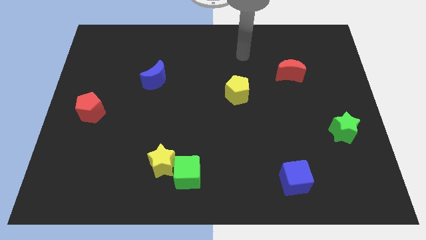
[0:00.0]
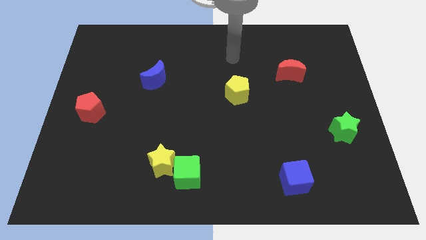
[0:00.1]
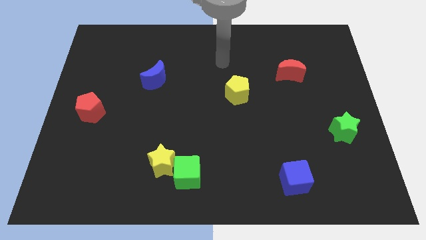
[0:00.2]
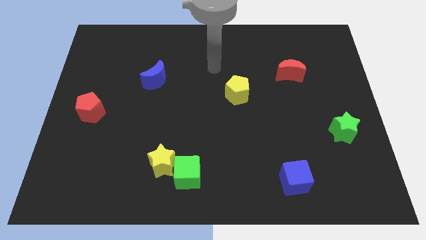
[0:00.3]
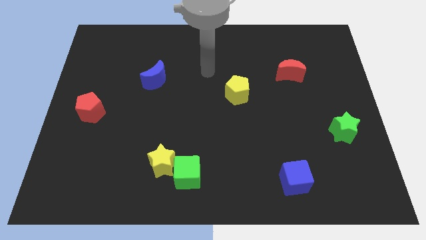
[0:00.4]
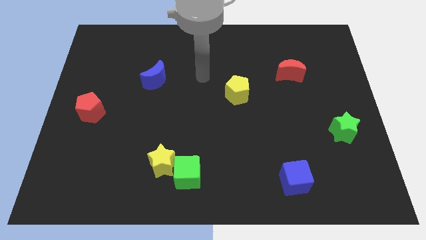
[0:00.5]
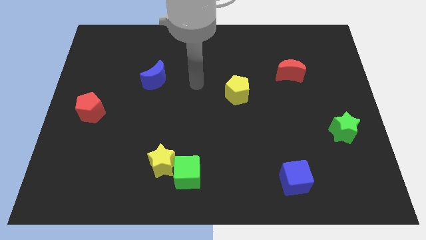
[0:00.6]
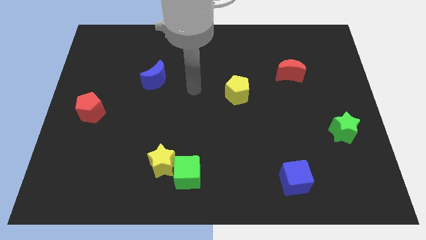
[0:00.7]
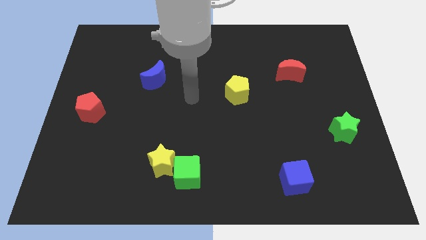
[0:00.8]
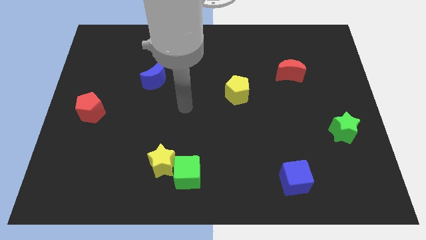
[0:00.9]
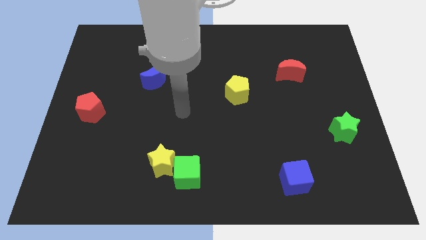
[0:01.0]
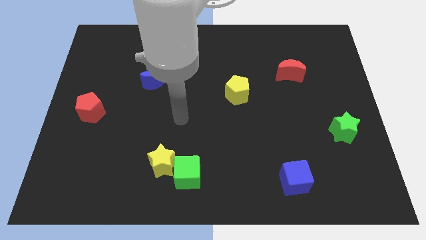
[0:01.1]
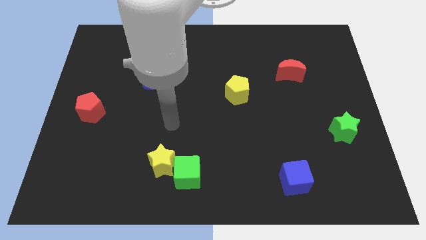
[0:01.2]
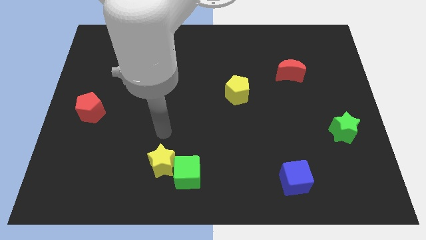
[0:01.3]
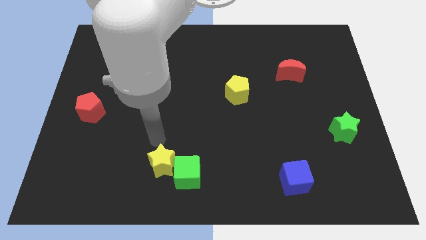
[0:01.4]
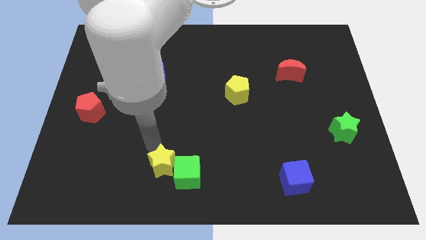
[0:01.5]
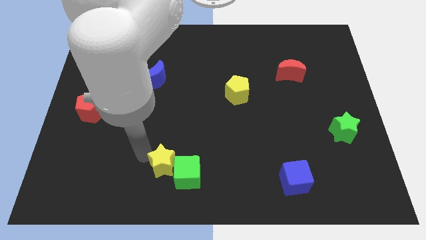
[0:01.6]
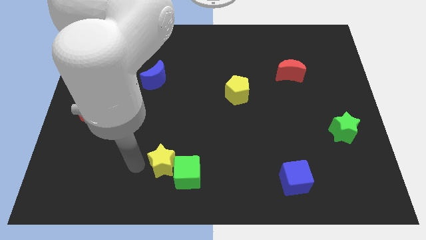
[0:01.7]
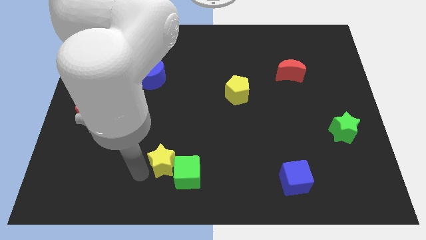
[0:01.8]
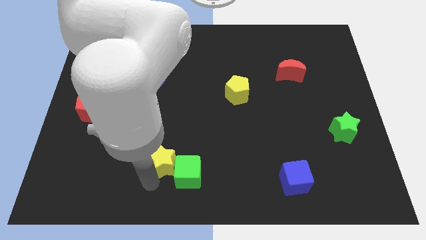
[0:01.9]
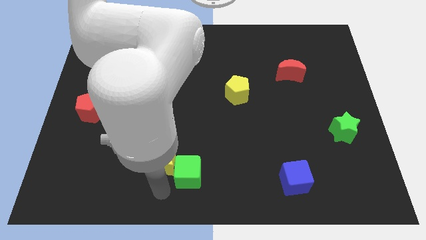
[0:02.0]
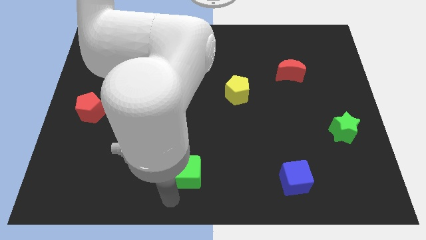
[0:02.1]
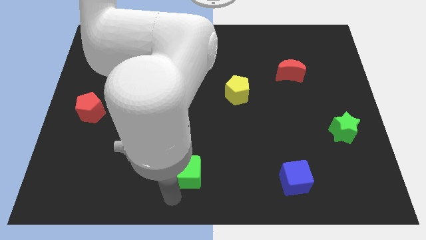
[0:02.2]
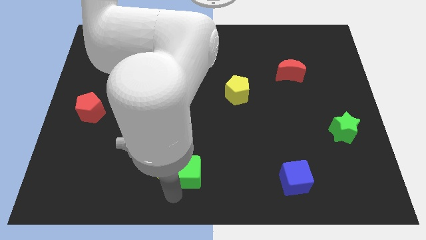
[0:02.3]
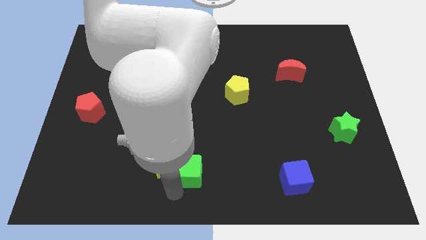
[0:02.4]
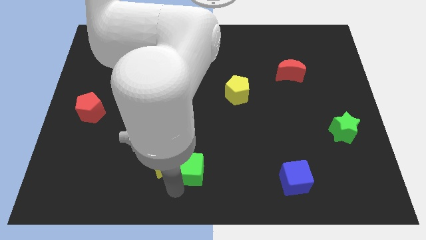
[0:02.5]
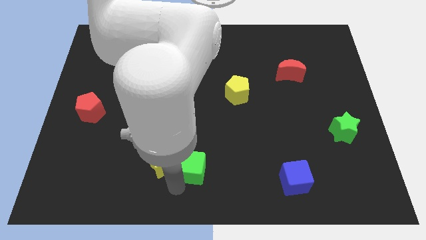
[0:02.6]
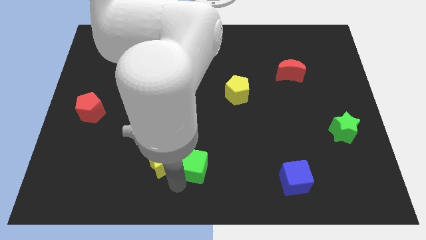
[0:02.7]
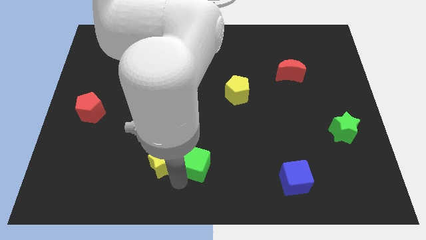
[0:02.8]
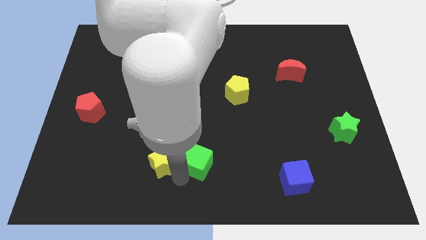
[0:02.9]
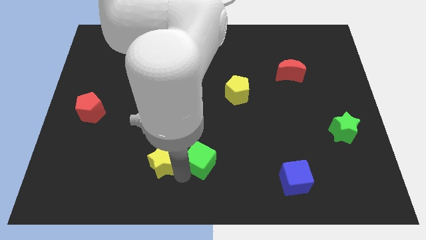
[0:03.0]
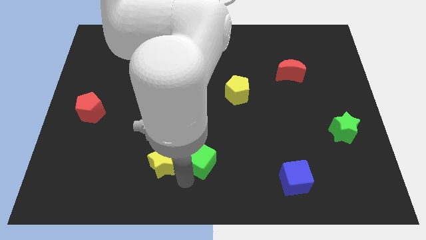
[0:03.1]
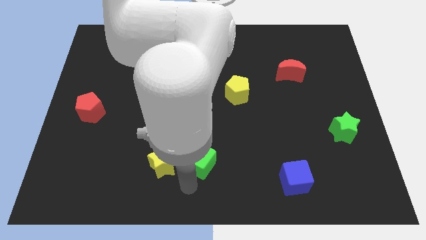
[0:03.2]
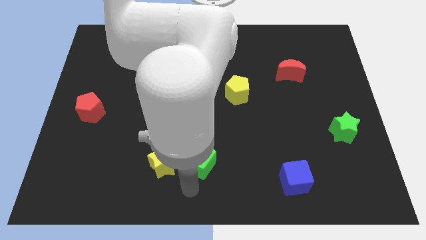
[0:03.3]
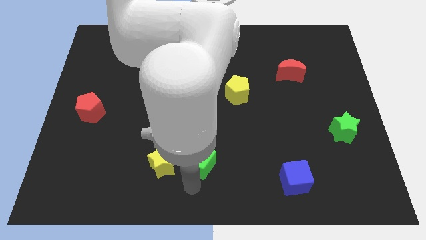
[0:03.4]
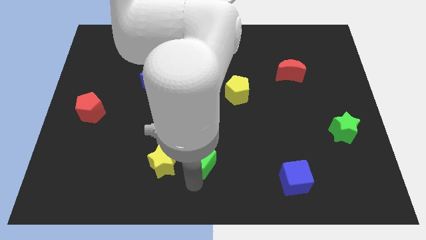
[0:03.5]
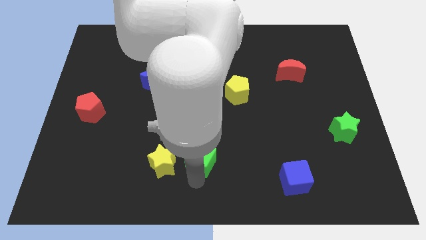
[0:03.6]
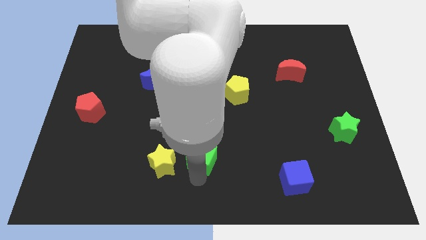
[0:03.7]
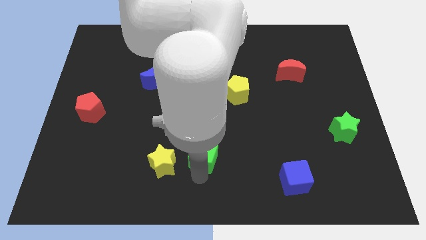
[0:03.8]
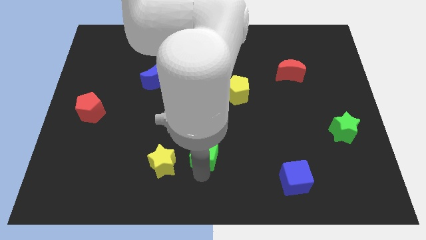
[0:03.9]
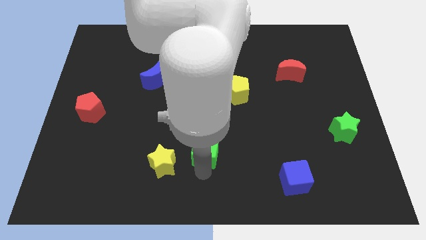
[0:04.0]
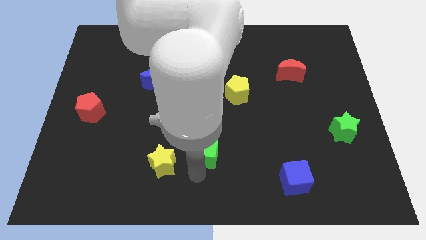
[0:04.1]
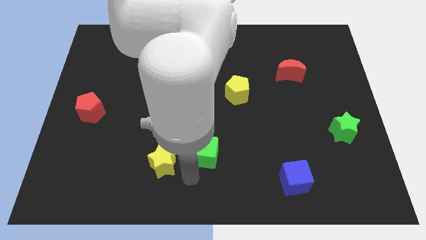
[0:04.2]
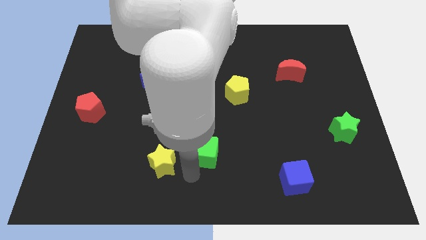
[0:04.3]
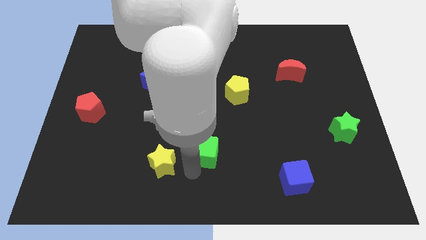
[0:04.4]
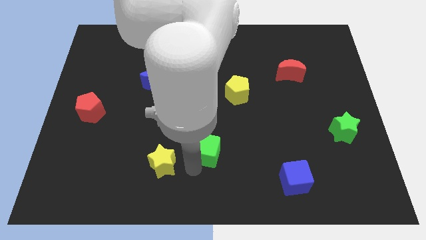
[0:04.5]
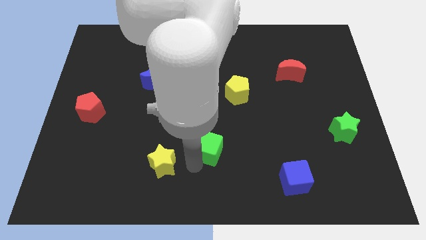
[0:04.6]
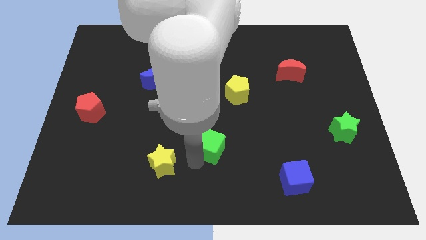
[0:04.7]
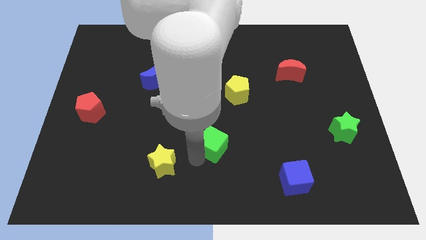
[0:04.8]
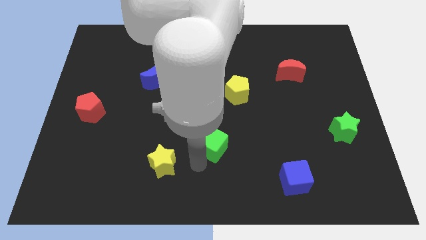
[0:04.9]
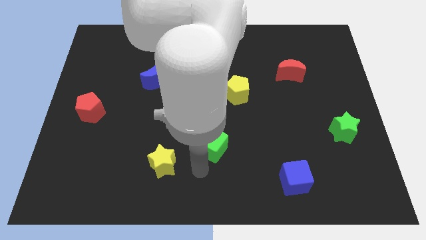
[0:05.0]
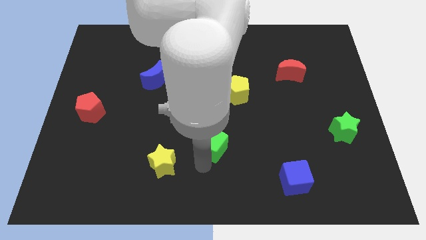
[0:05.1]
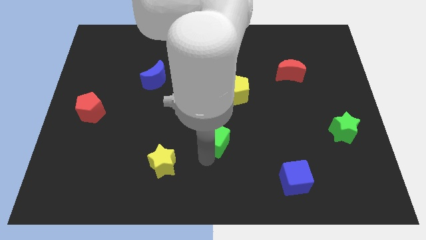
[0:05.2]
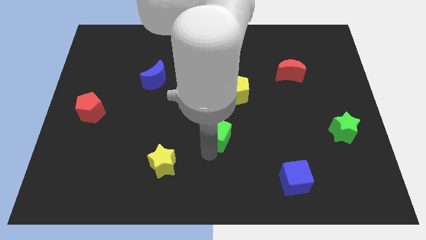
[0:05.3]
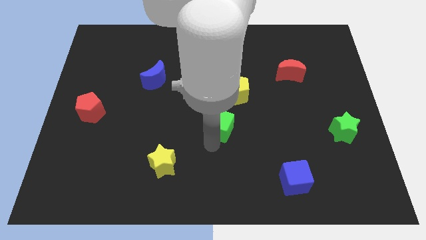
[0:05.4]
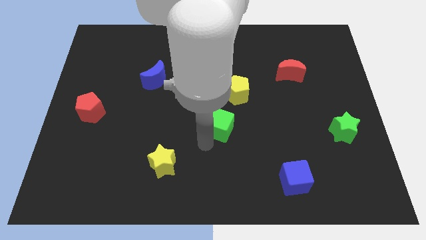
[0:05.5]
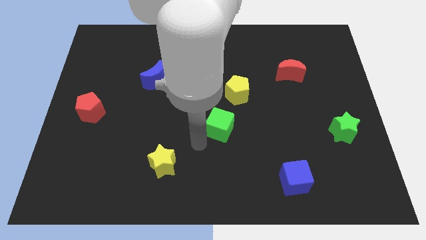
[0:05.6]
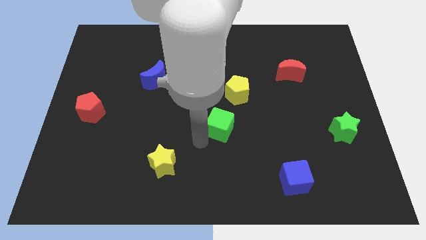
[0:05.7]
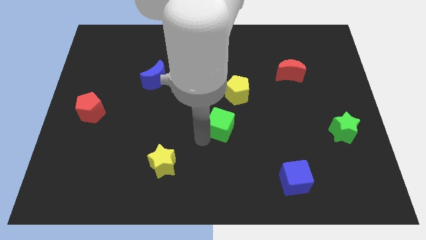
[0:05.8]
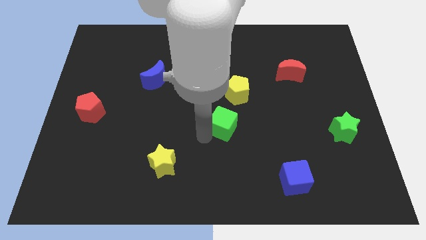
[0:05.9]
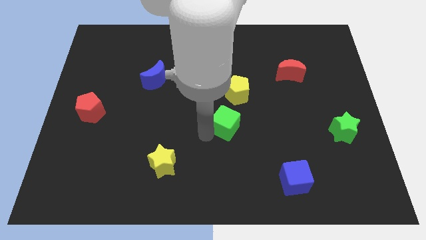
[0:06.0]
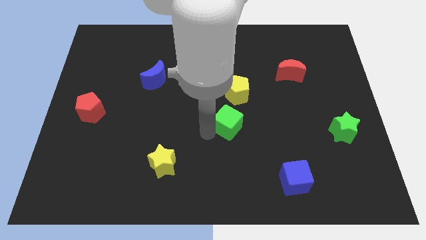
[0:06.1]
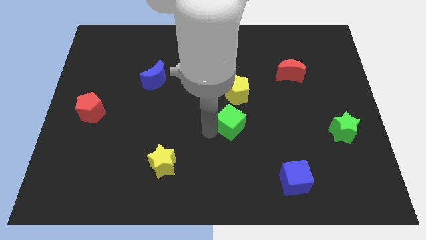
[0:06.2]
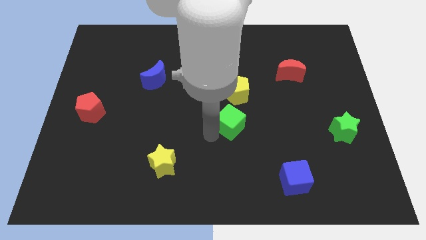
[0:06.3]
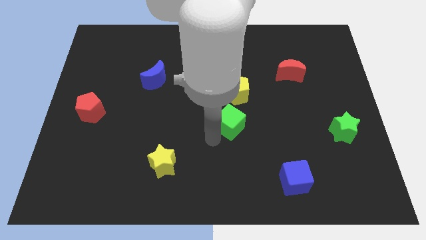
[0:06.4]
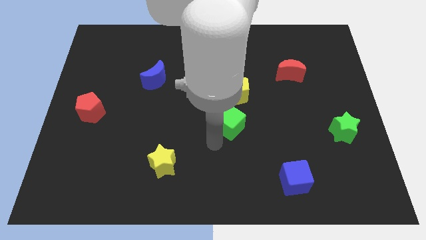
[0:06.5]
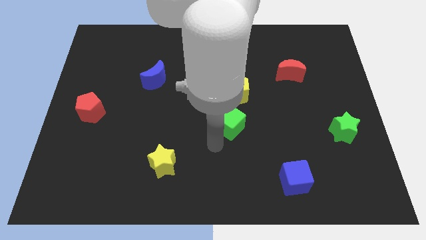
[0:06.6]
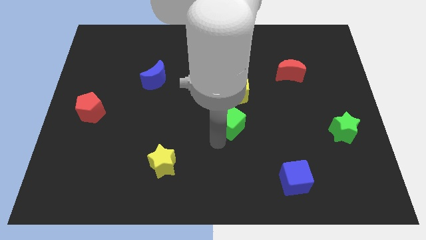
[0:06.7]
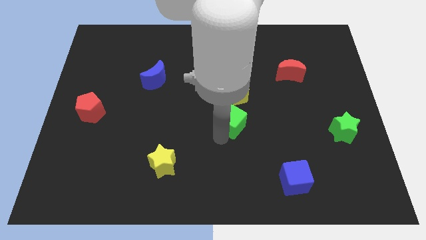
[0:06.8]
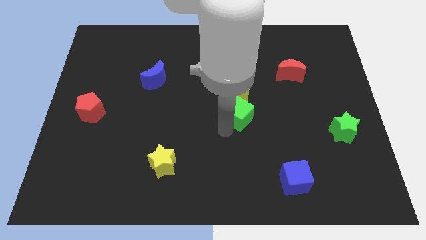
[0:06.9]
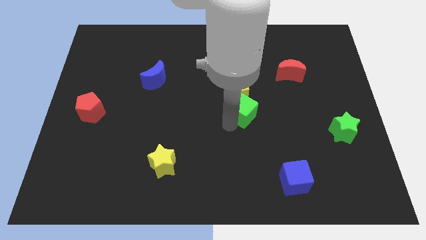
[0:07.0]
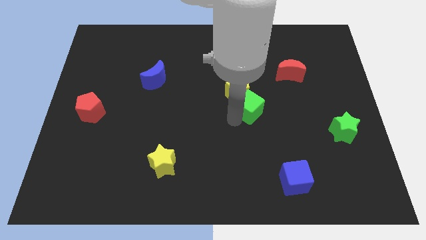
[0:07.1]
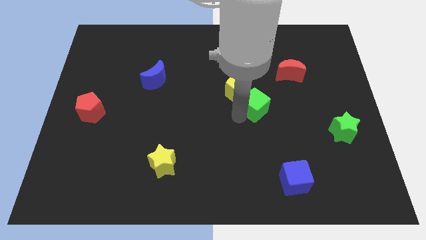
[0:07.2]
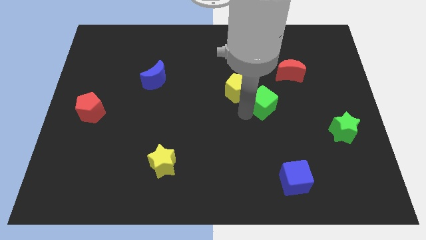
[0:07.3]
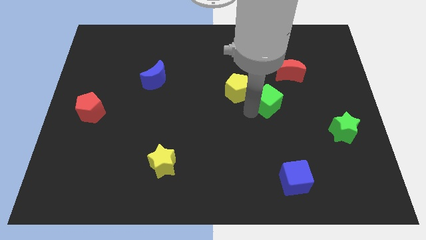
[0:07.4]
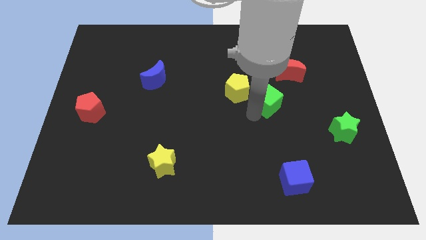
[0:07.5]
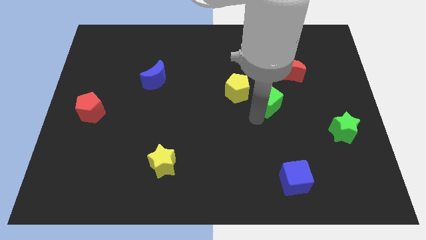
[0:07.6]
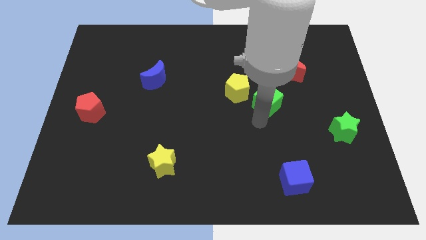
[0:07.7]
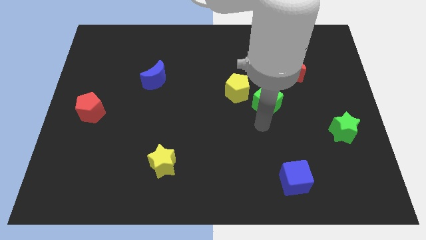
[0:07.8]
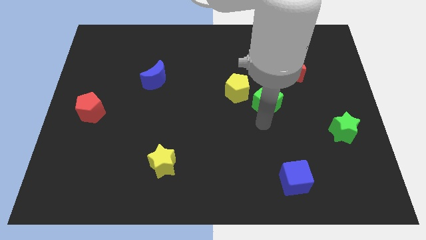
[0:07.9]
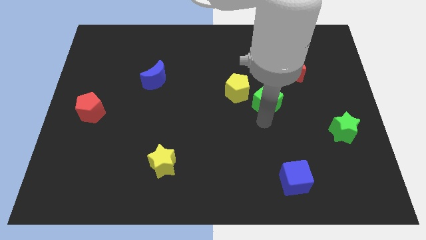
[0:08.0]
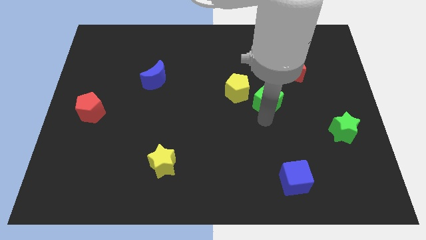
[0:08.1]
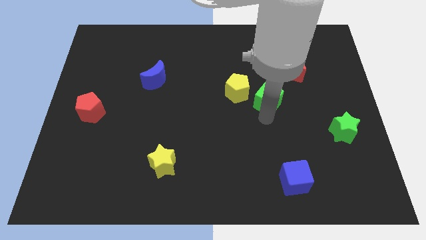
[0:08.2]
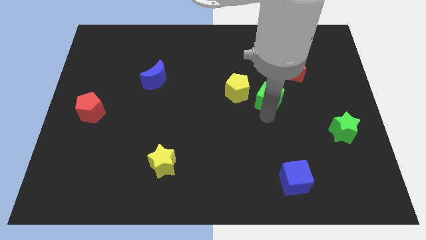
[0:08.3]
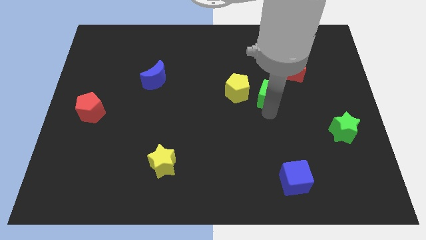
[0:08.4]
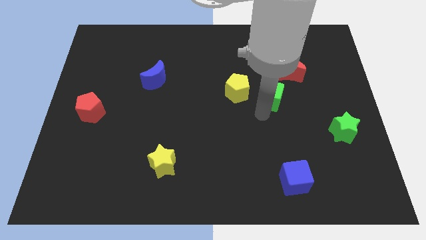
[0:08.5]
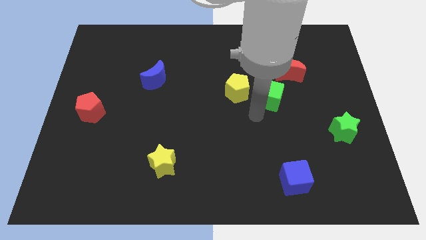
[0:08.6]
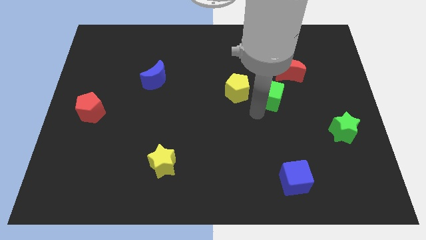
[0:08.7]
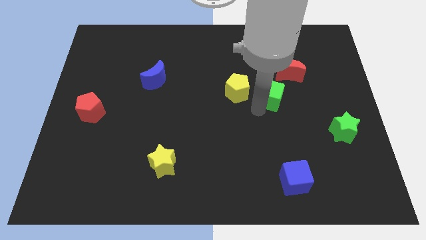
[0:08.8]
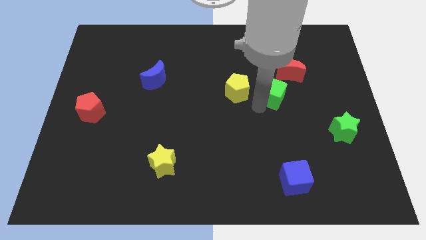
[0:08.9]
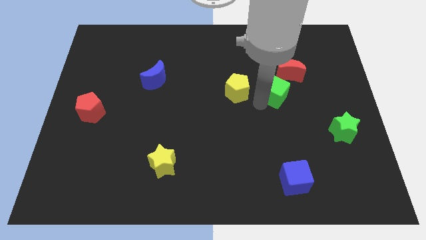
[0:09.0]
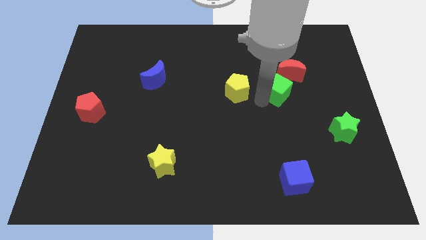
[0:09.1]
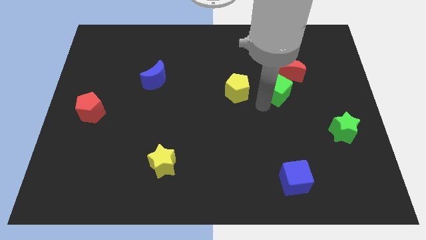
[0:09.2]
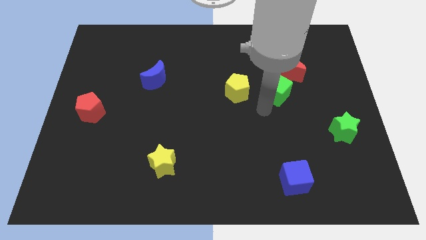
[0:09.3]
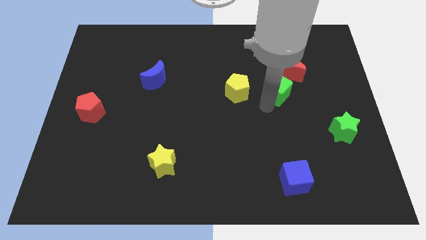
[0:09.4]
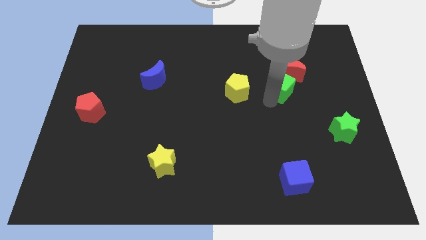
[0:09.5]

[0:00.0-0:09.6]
slide the green cube towards the red moon
